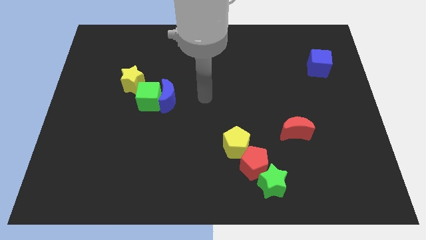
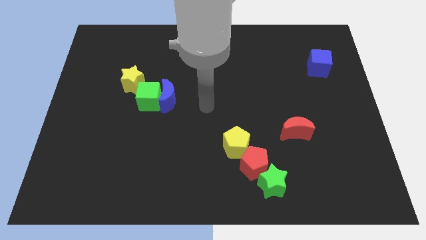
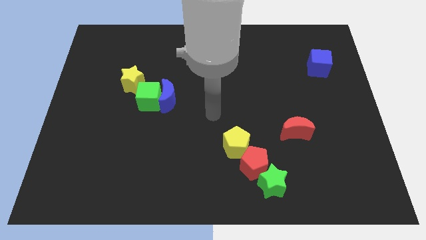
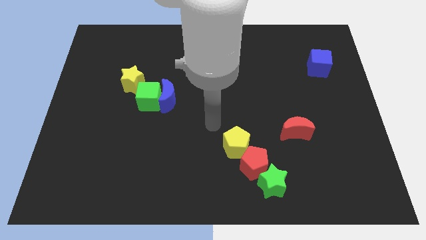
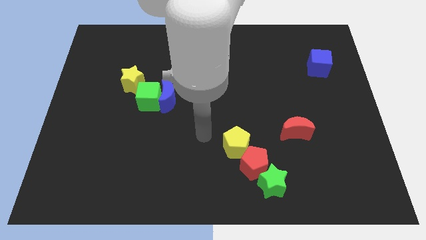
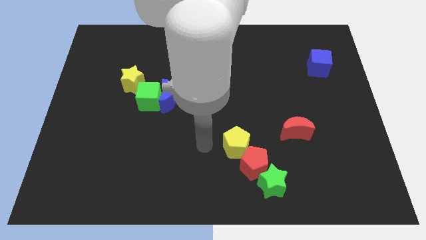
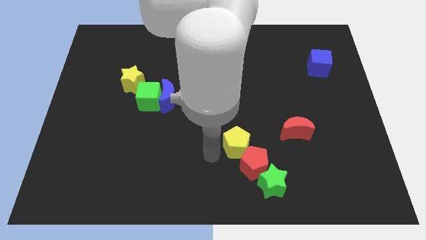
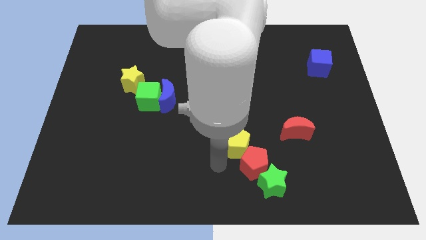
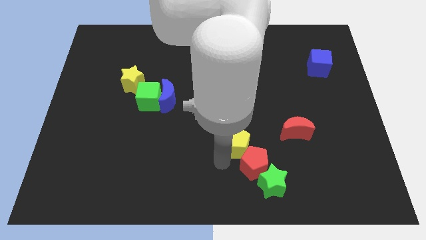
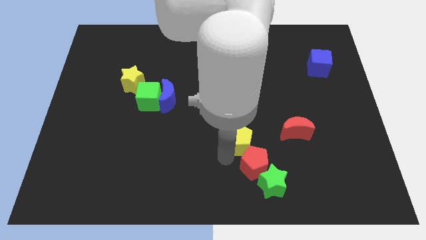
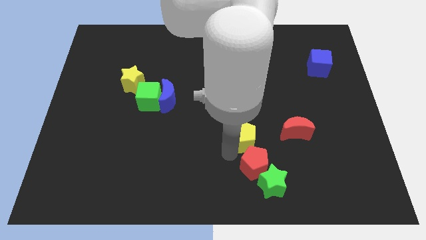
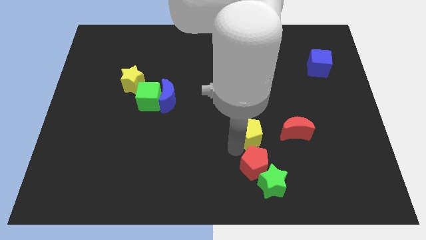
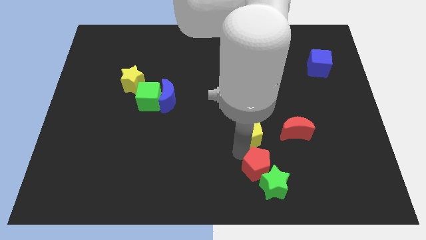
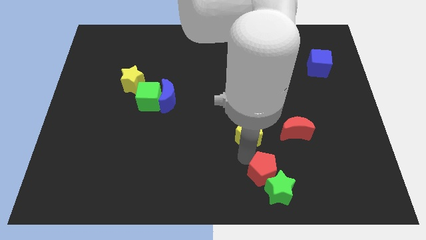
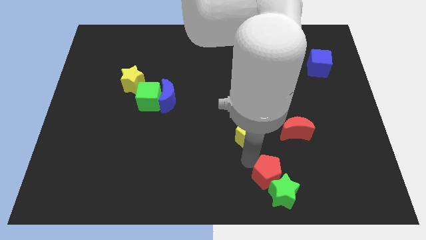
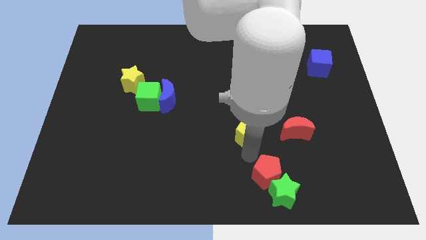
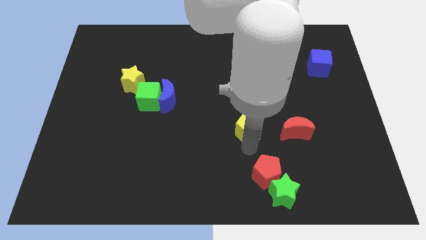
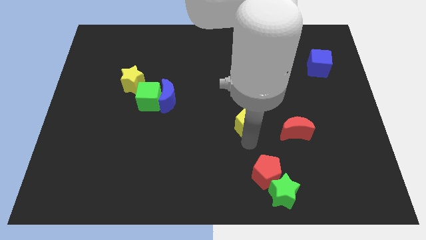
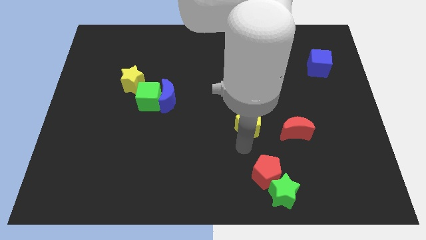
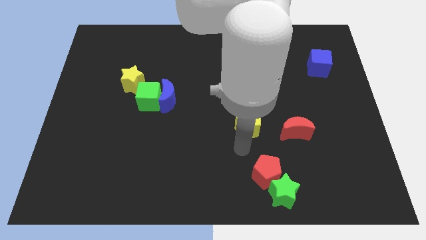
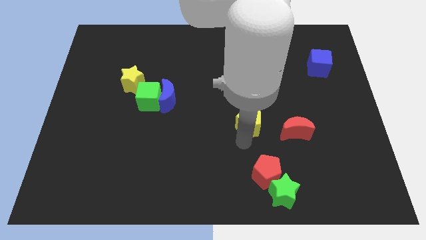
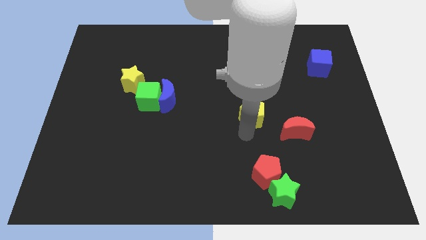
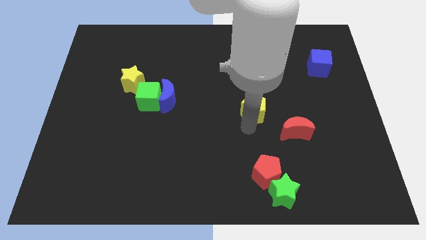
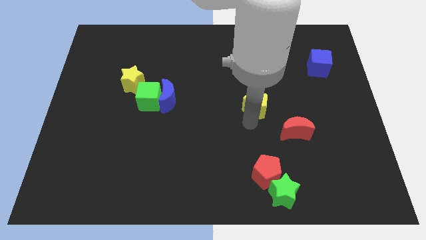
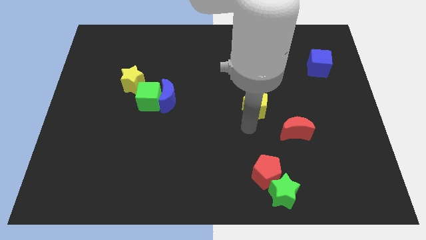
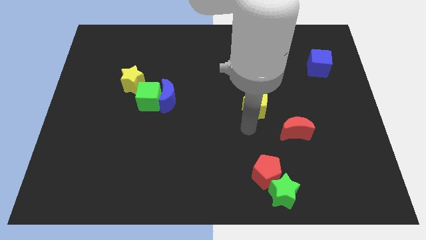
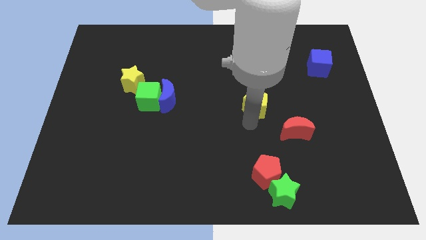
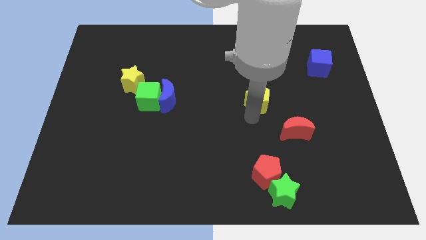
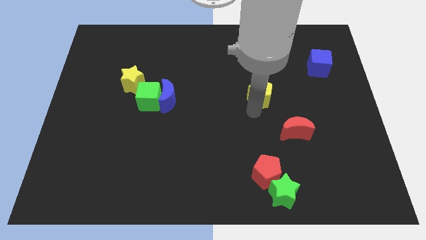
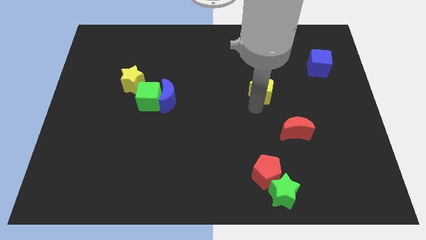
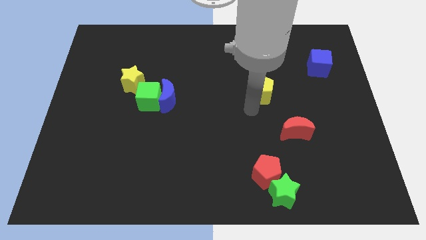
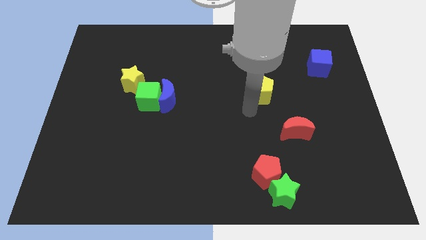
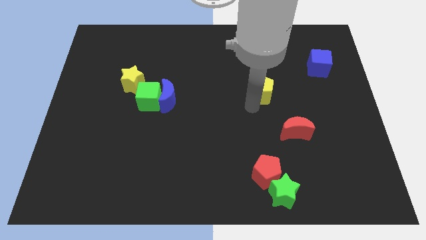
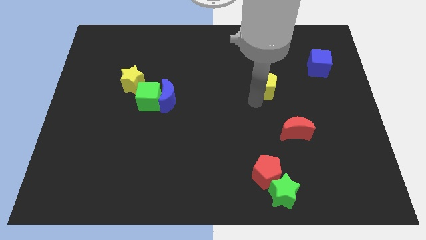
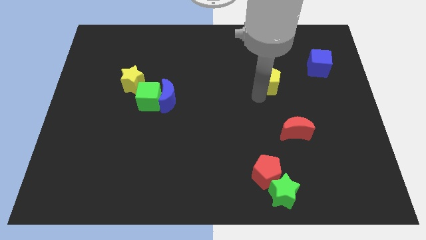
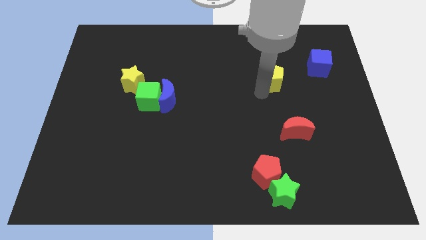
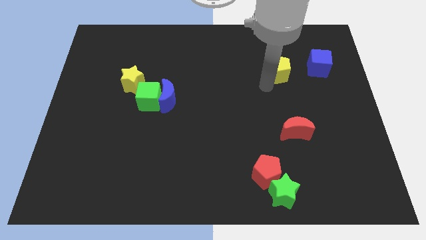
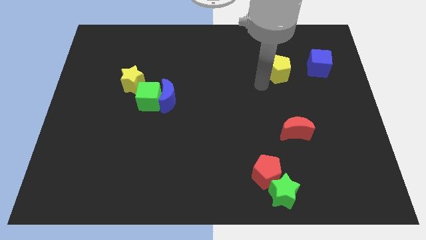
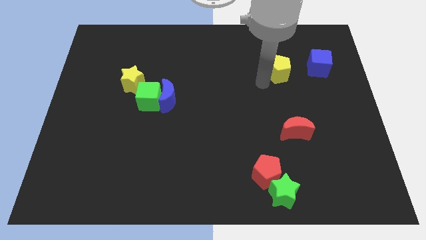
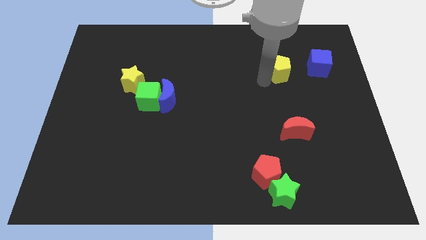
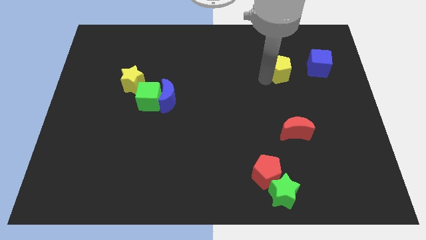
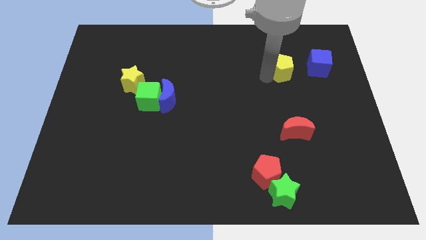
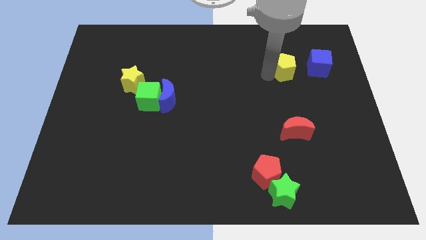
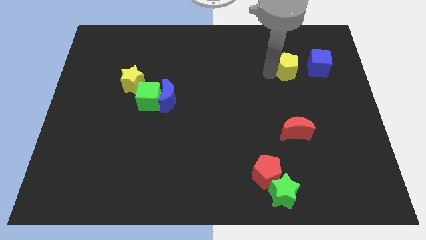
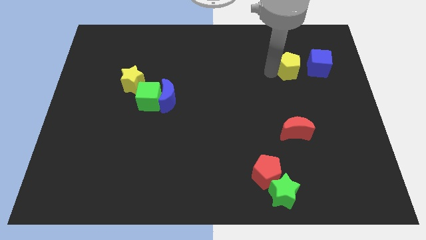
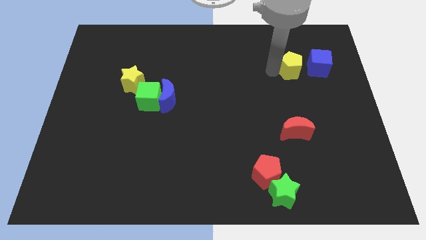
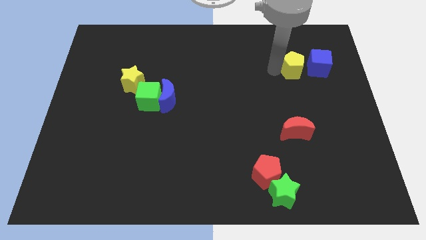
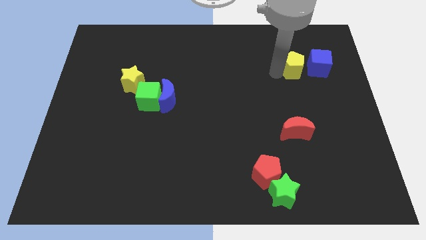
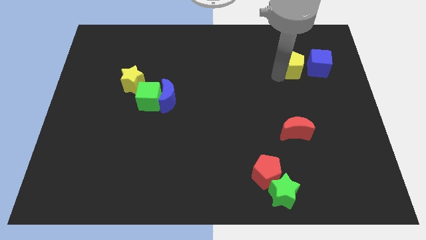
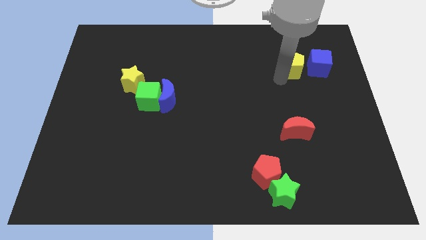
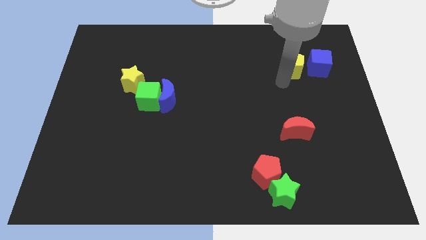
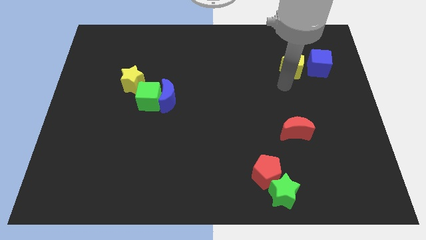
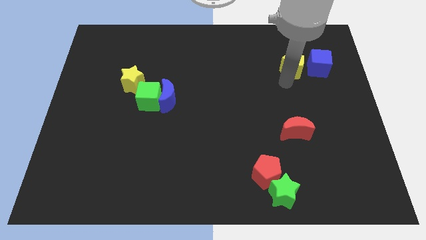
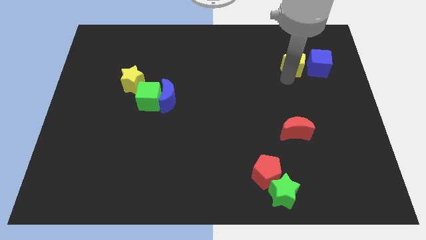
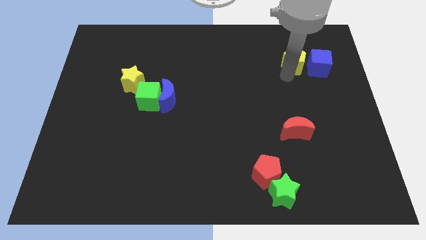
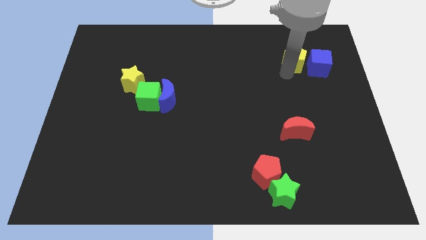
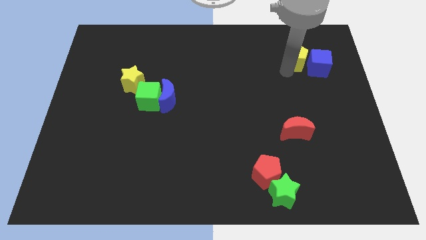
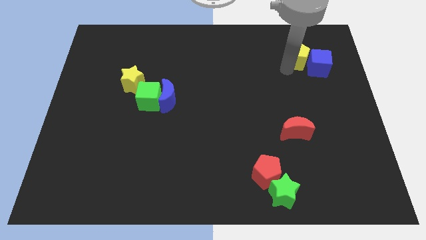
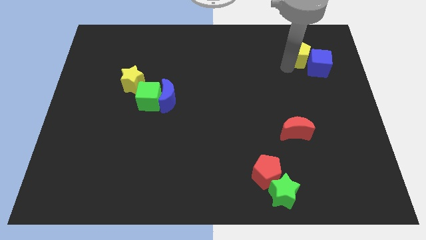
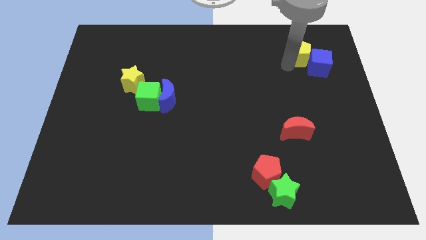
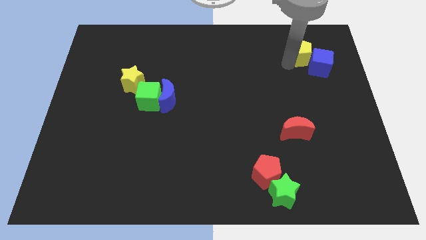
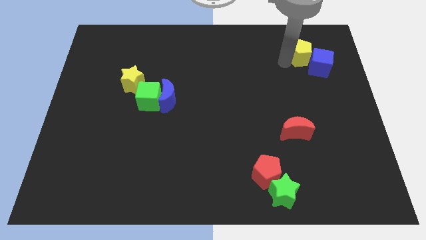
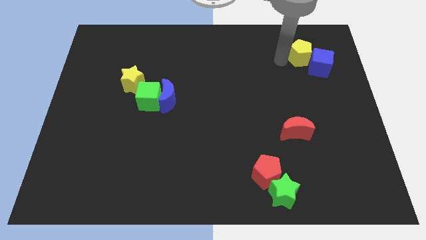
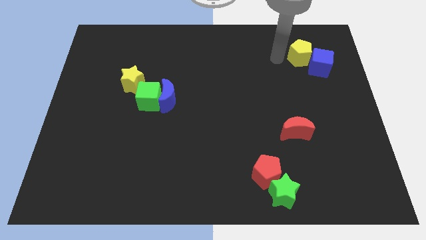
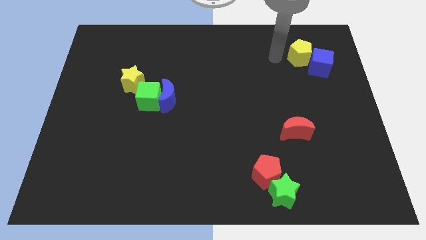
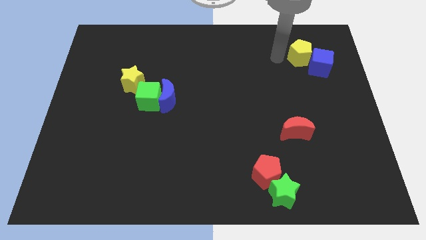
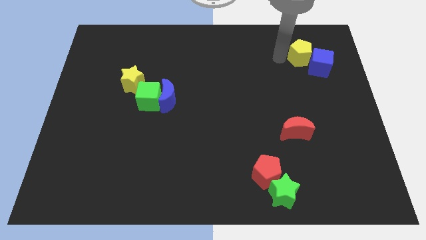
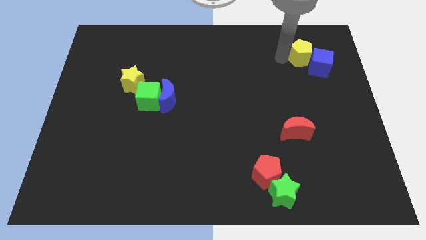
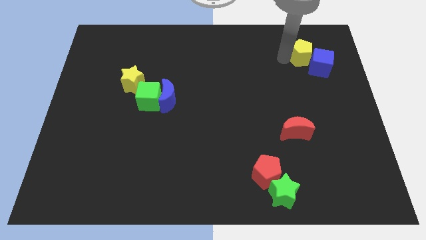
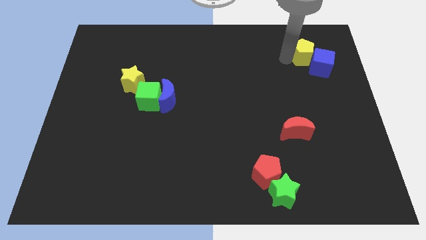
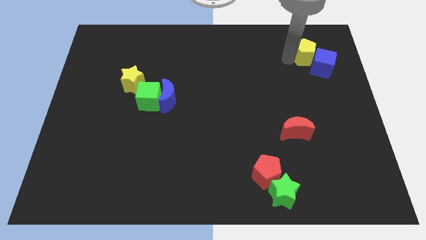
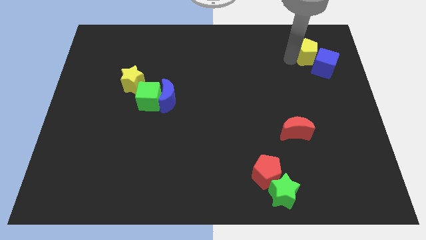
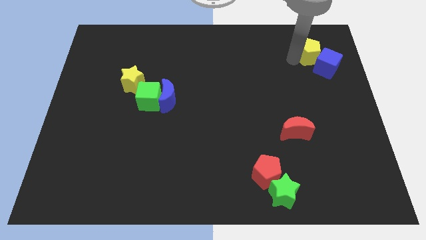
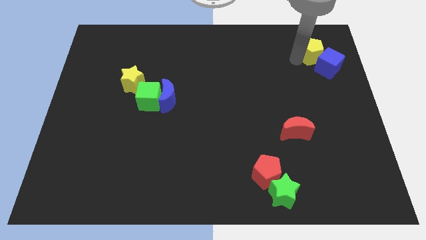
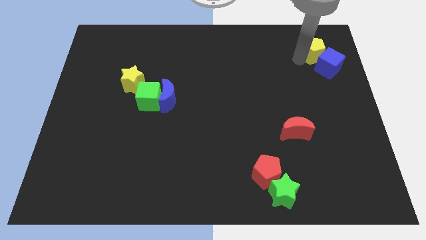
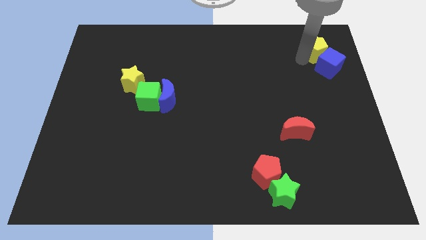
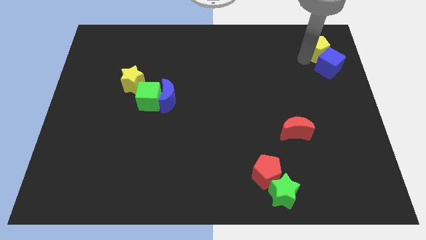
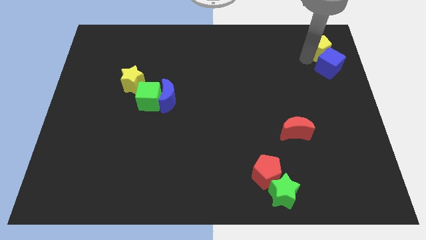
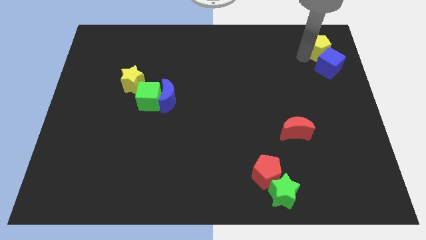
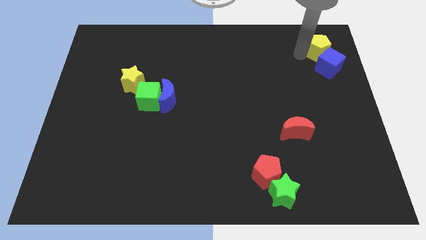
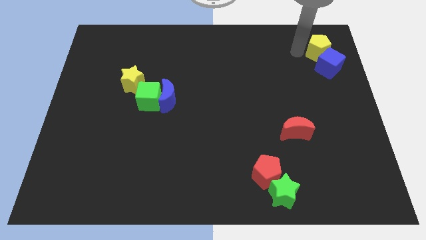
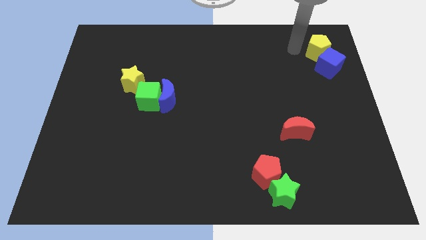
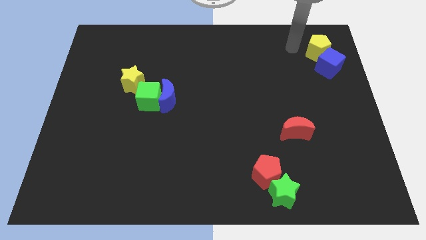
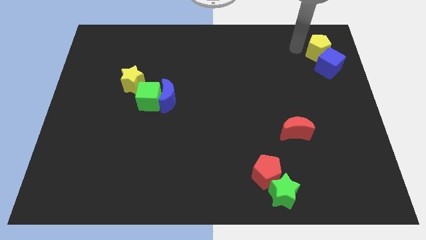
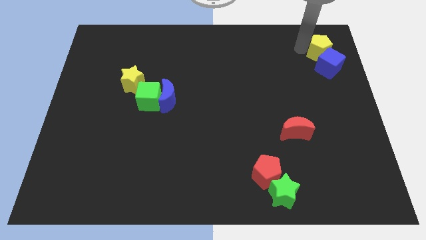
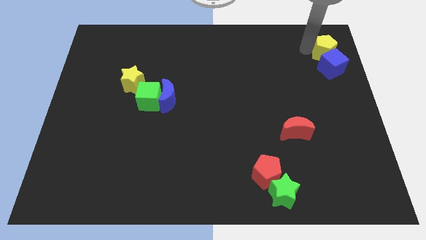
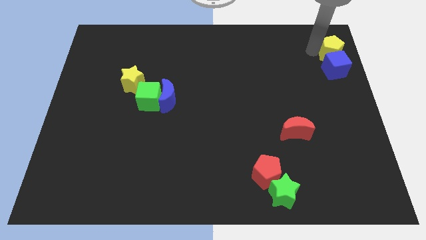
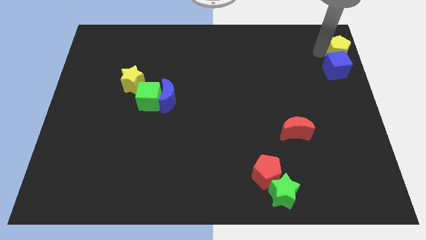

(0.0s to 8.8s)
slide the yellow pentagon to the top right corner
